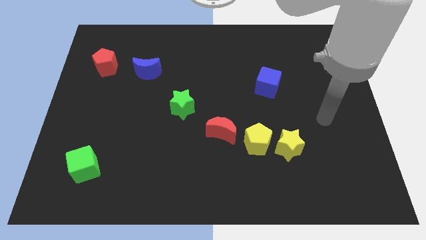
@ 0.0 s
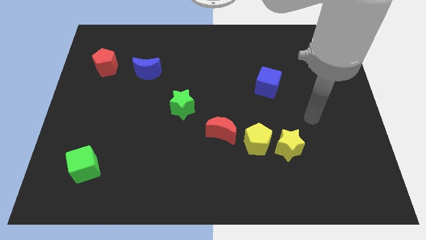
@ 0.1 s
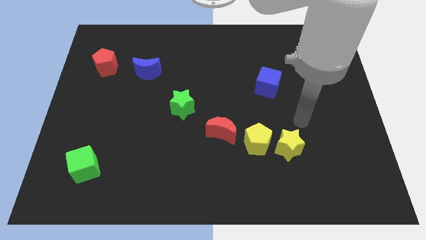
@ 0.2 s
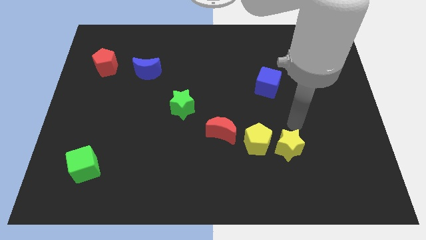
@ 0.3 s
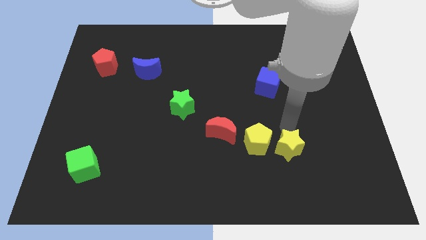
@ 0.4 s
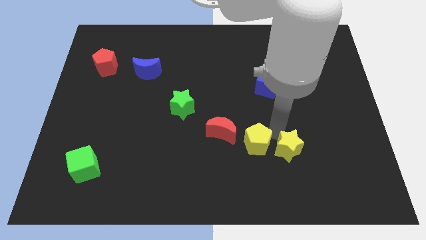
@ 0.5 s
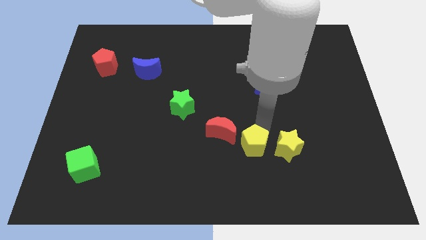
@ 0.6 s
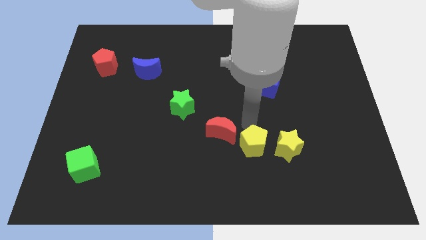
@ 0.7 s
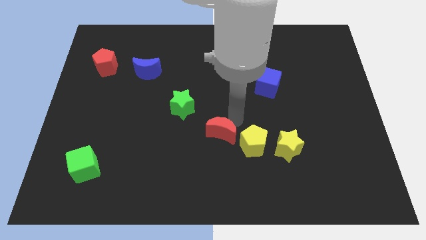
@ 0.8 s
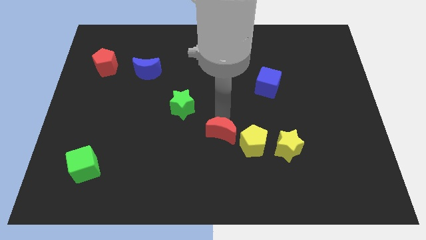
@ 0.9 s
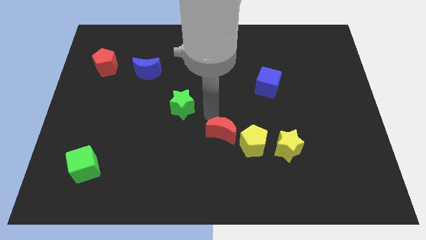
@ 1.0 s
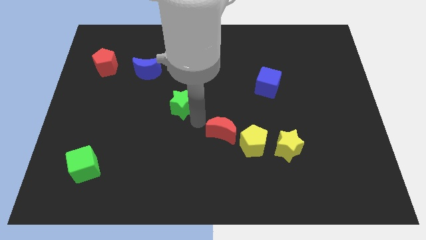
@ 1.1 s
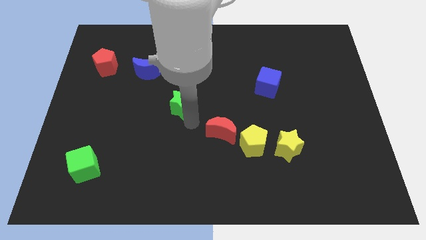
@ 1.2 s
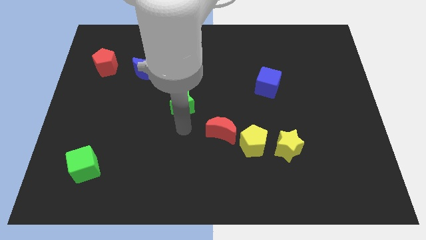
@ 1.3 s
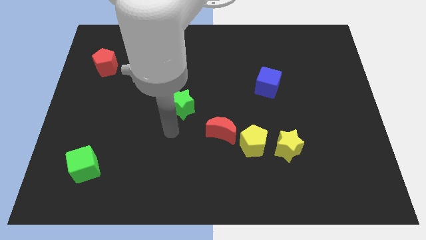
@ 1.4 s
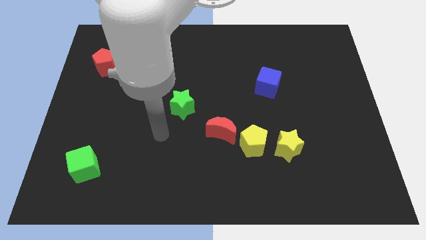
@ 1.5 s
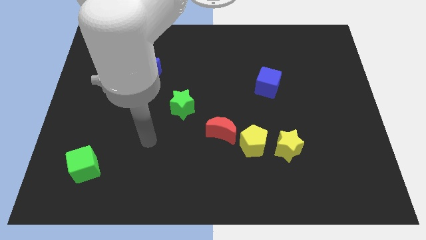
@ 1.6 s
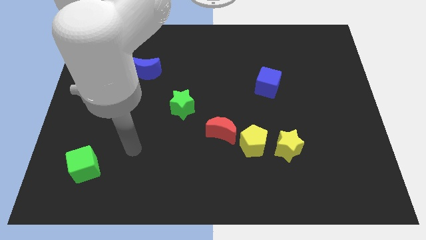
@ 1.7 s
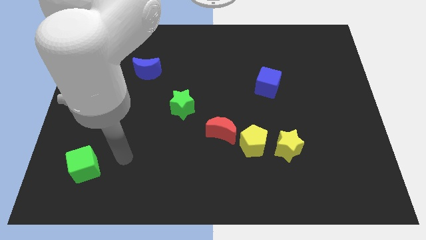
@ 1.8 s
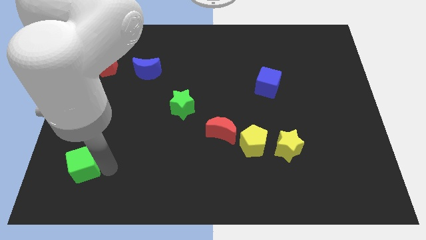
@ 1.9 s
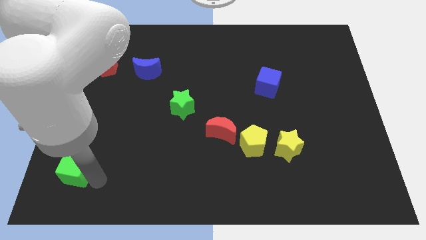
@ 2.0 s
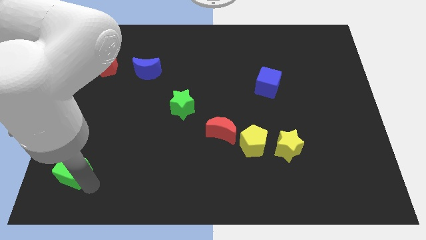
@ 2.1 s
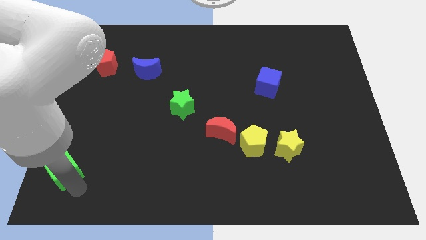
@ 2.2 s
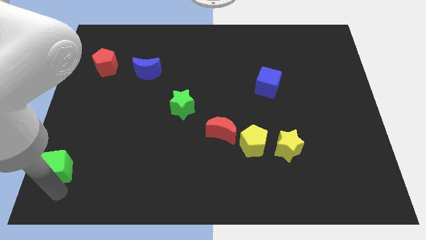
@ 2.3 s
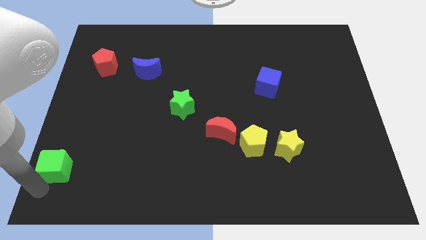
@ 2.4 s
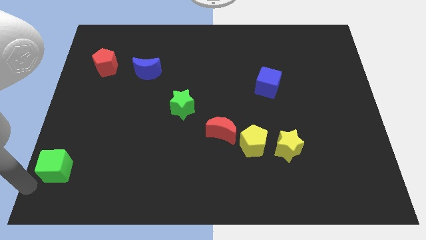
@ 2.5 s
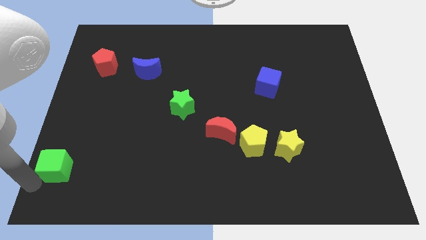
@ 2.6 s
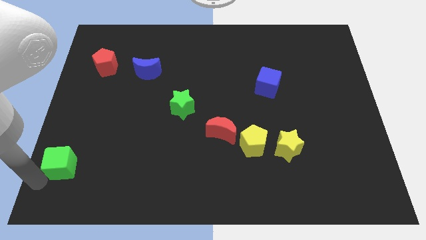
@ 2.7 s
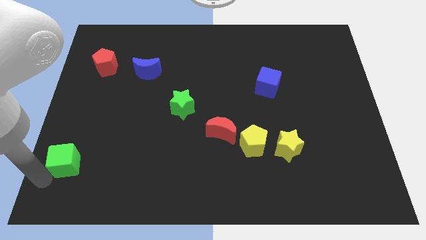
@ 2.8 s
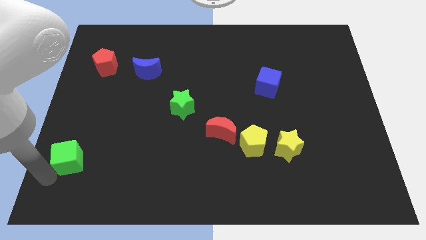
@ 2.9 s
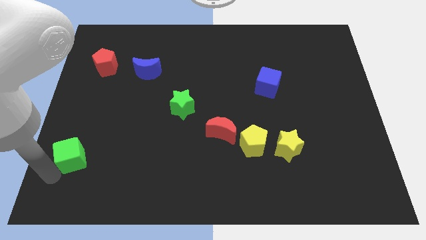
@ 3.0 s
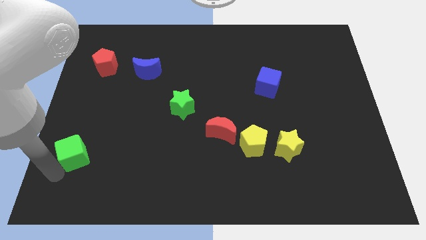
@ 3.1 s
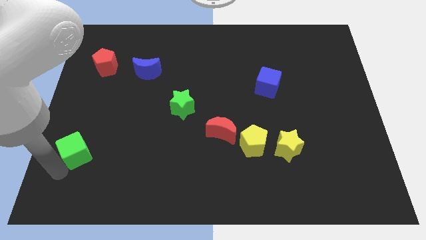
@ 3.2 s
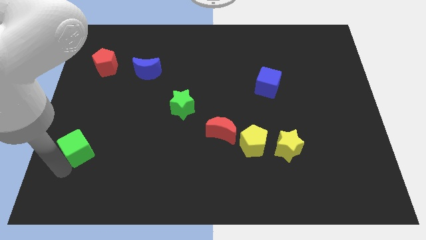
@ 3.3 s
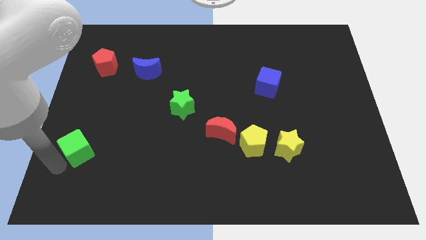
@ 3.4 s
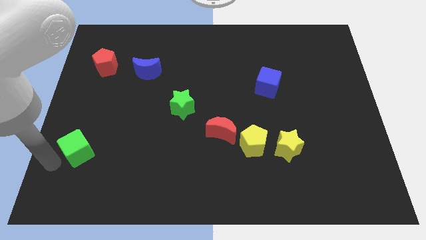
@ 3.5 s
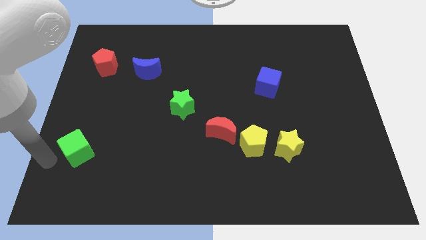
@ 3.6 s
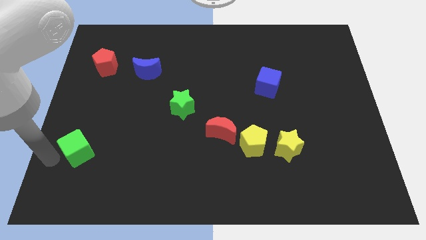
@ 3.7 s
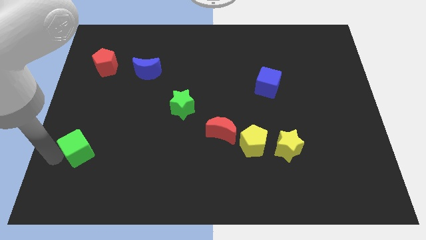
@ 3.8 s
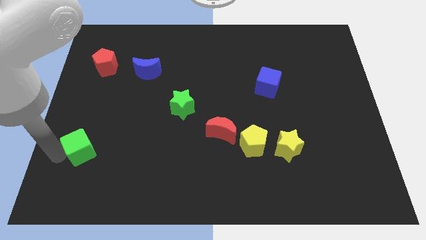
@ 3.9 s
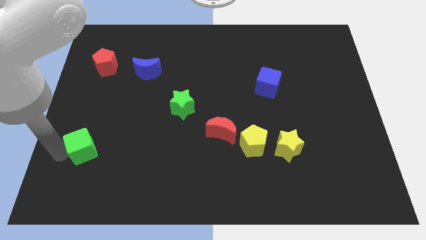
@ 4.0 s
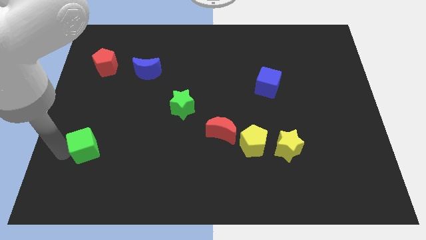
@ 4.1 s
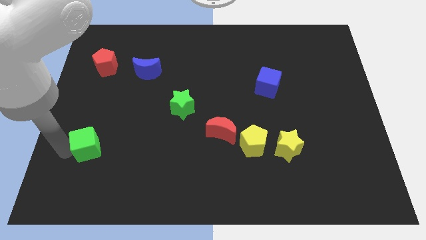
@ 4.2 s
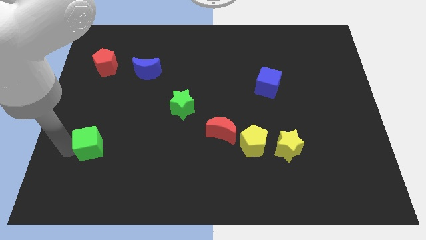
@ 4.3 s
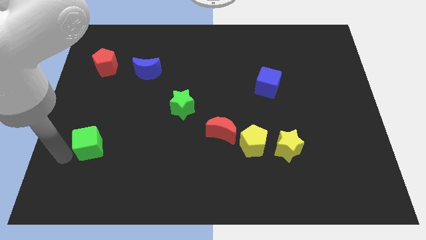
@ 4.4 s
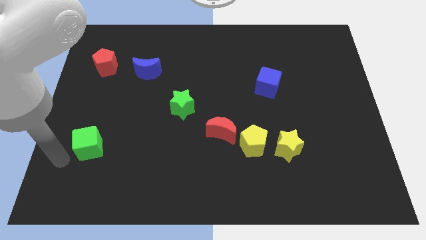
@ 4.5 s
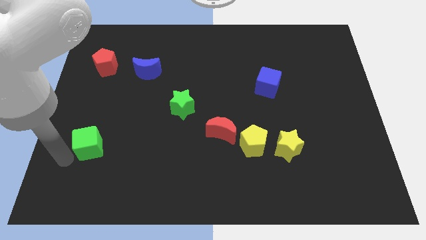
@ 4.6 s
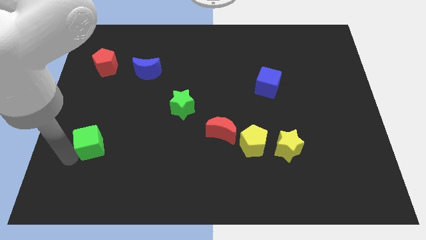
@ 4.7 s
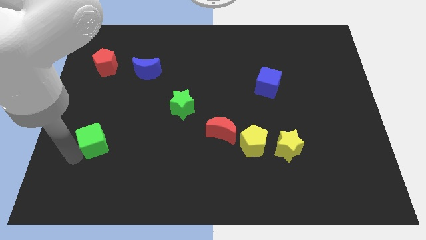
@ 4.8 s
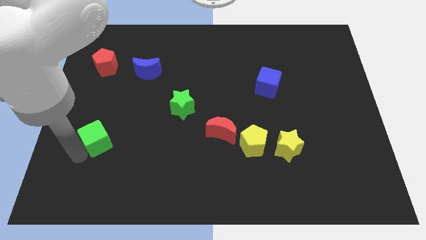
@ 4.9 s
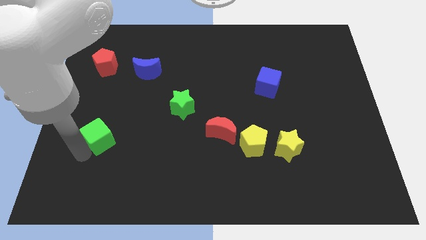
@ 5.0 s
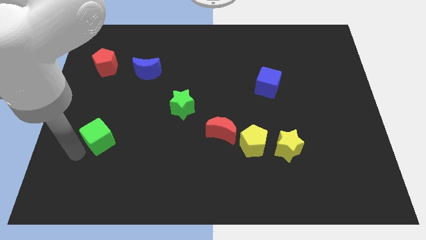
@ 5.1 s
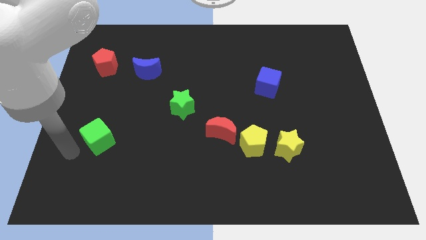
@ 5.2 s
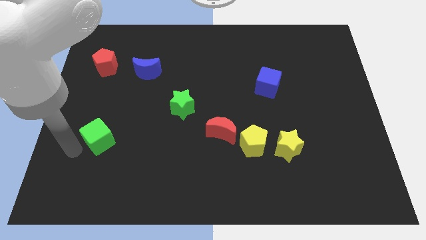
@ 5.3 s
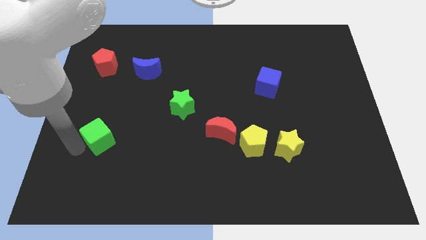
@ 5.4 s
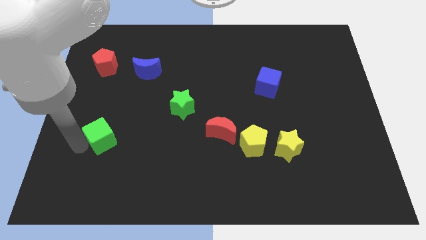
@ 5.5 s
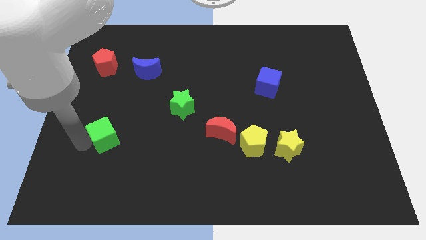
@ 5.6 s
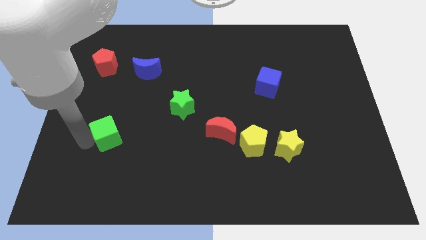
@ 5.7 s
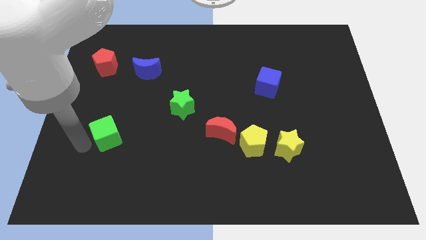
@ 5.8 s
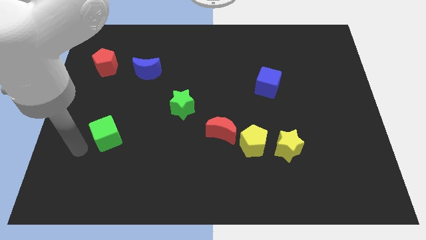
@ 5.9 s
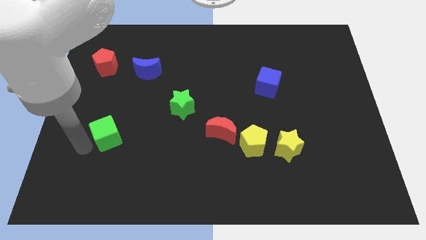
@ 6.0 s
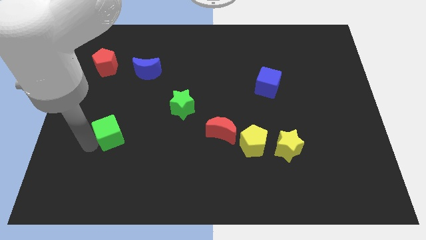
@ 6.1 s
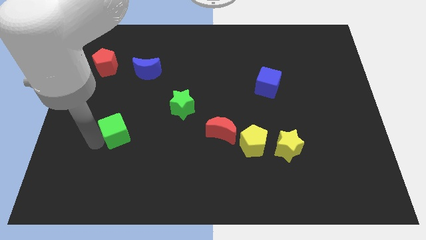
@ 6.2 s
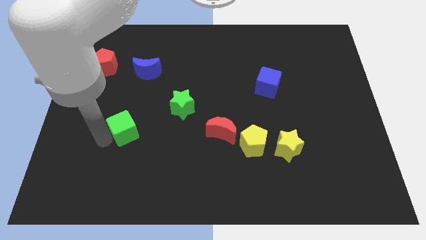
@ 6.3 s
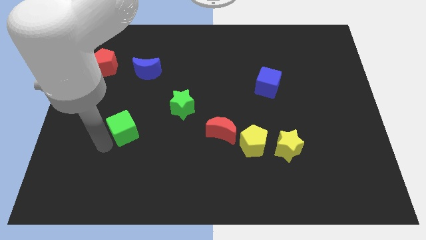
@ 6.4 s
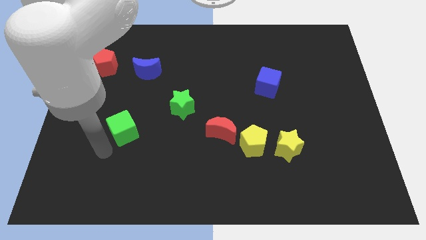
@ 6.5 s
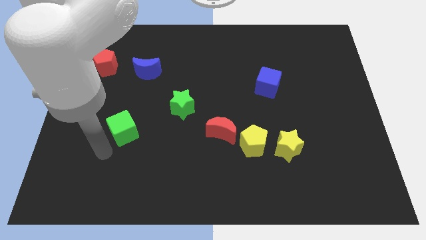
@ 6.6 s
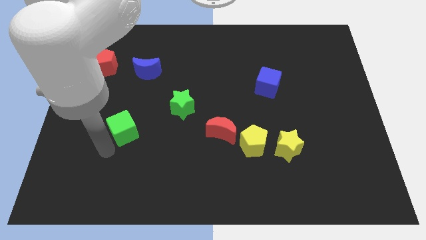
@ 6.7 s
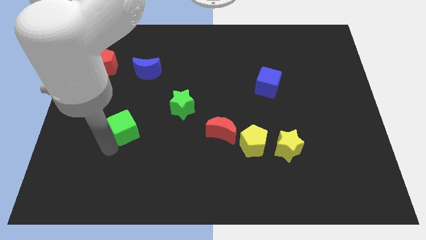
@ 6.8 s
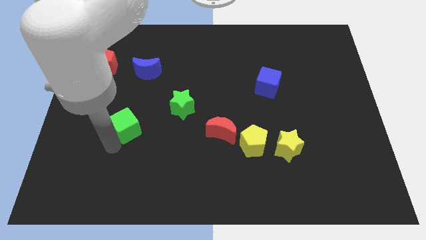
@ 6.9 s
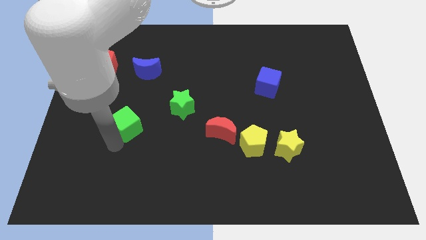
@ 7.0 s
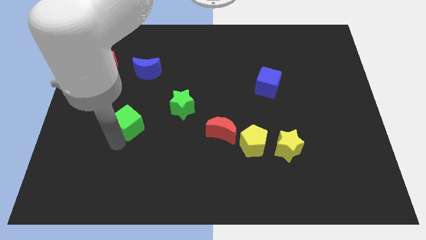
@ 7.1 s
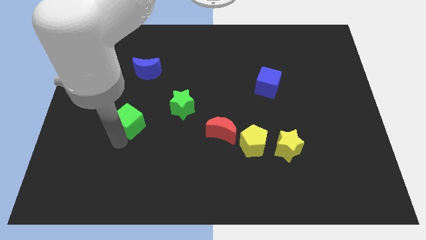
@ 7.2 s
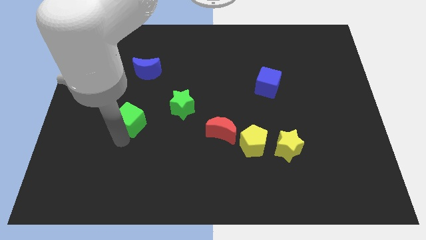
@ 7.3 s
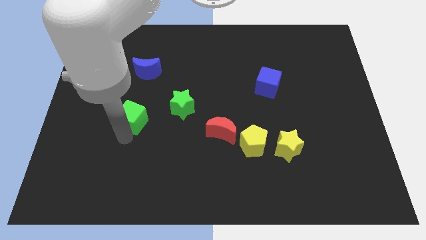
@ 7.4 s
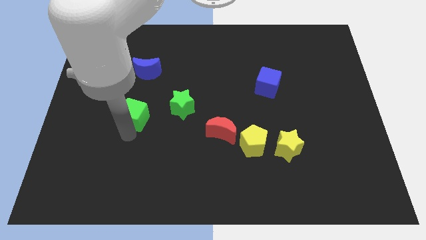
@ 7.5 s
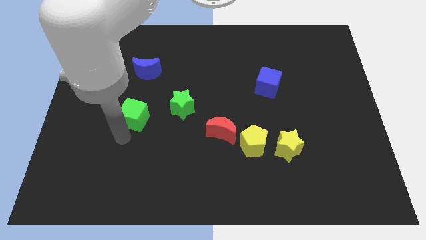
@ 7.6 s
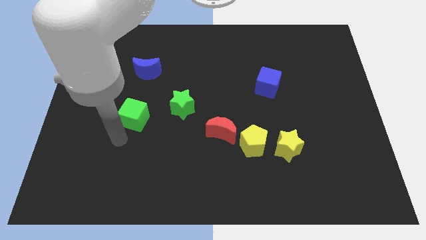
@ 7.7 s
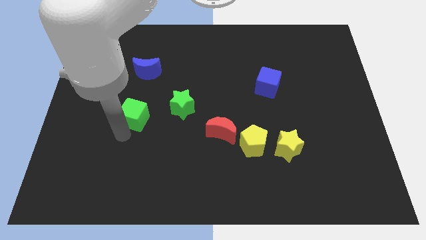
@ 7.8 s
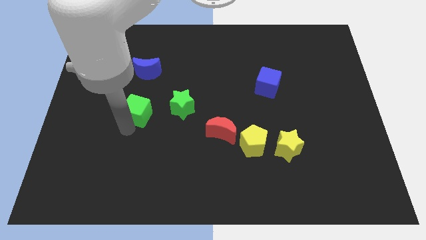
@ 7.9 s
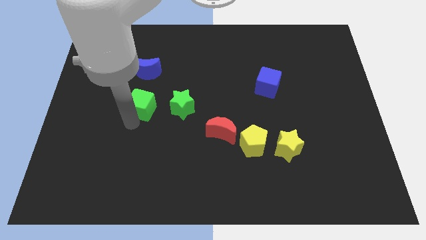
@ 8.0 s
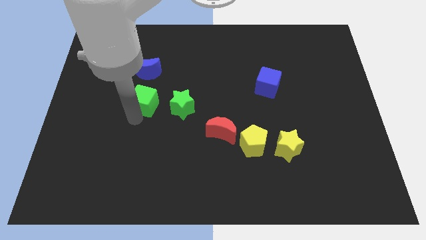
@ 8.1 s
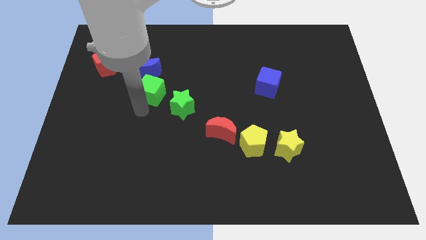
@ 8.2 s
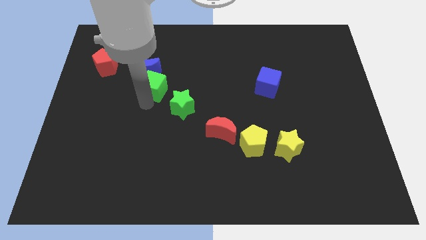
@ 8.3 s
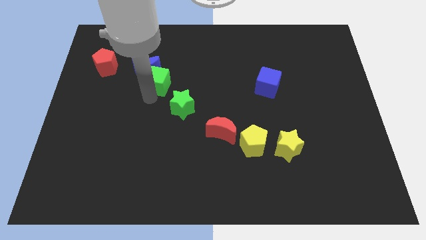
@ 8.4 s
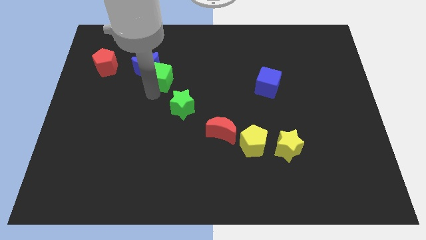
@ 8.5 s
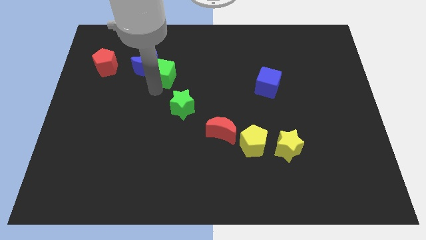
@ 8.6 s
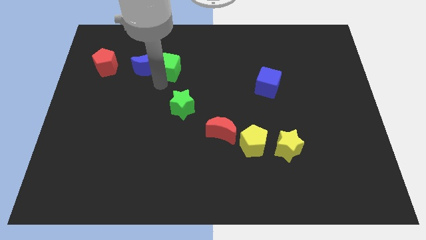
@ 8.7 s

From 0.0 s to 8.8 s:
move the green cube to the top right side of the blue moon
